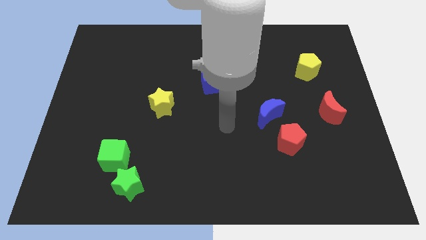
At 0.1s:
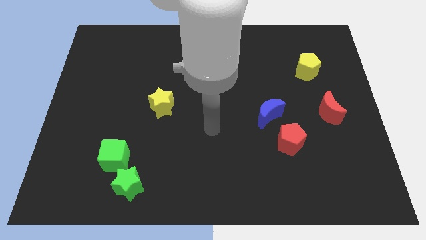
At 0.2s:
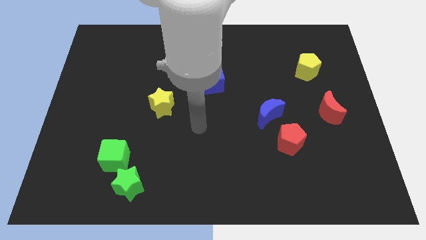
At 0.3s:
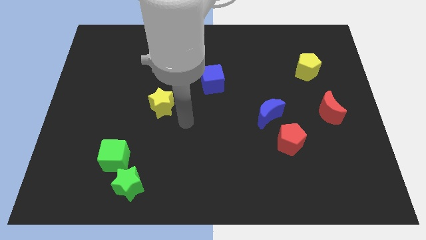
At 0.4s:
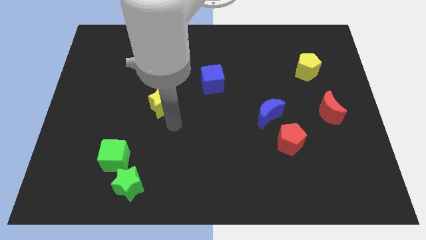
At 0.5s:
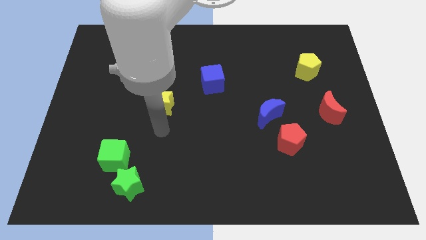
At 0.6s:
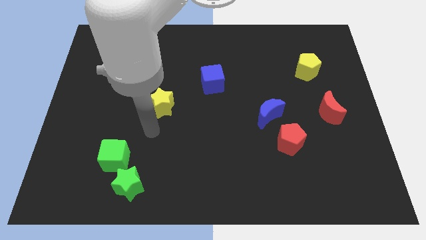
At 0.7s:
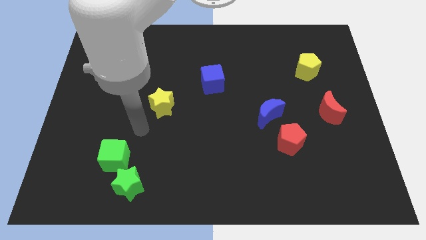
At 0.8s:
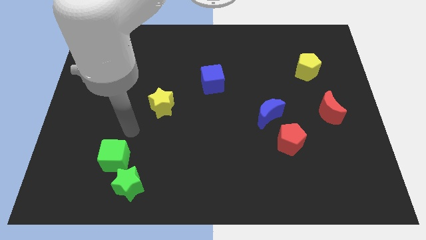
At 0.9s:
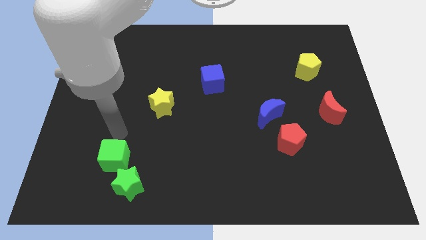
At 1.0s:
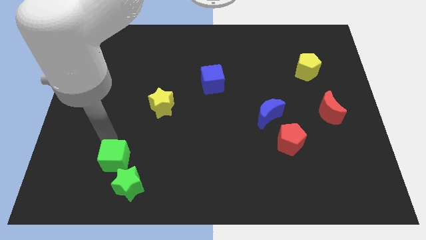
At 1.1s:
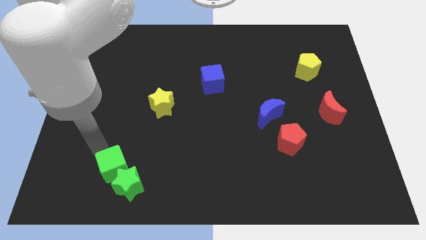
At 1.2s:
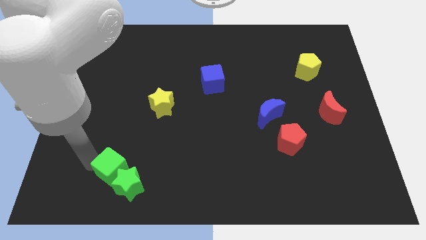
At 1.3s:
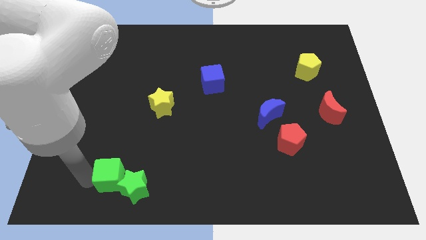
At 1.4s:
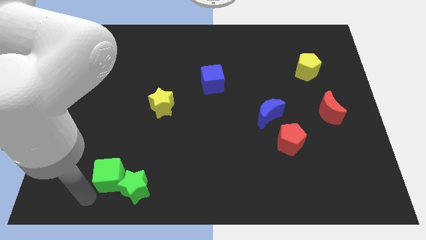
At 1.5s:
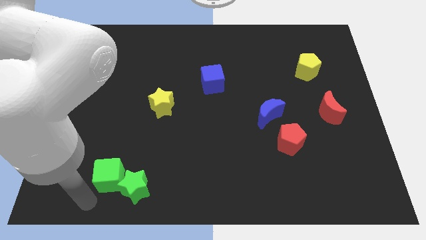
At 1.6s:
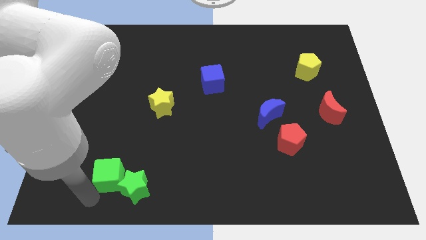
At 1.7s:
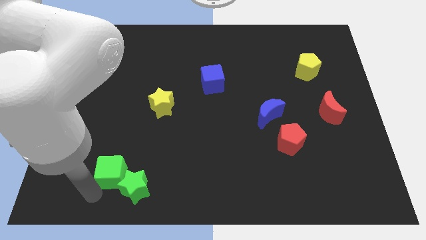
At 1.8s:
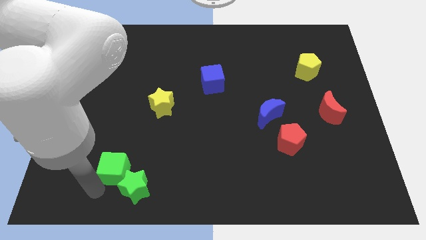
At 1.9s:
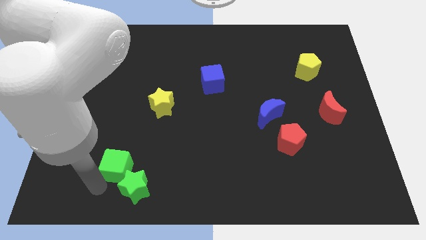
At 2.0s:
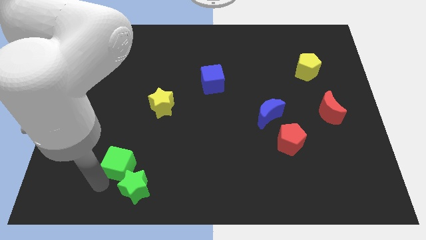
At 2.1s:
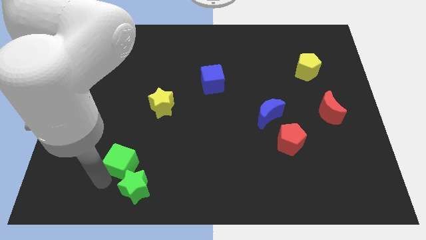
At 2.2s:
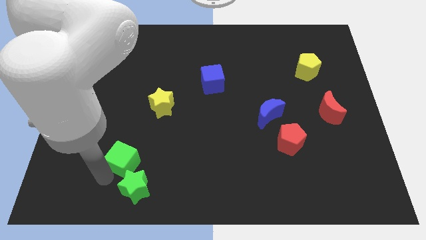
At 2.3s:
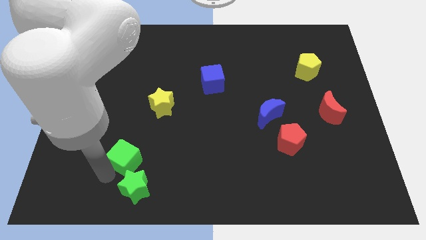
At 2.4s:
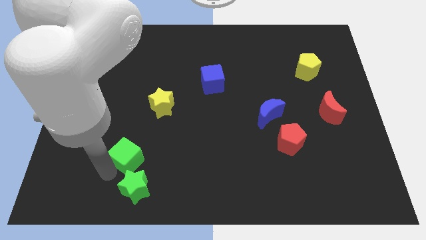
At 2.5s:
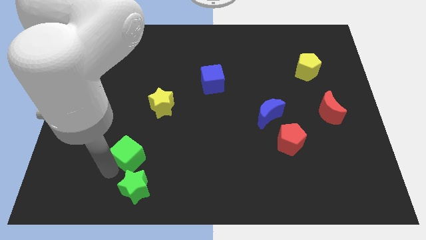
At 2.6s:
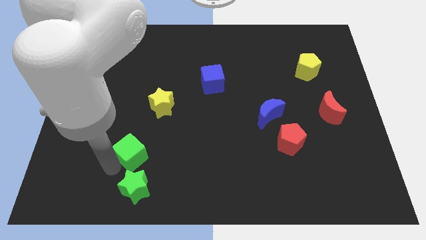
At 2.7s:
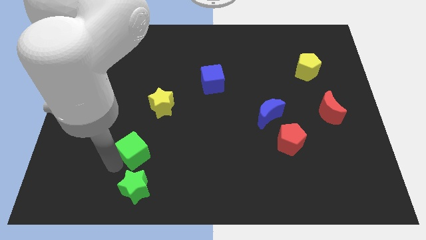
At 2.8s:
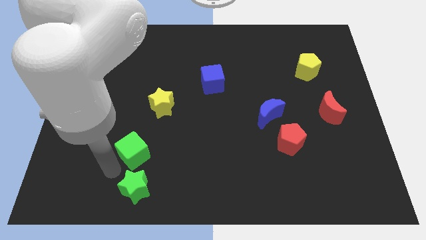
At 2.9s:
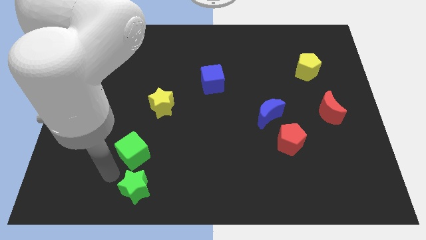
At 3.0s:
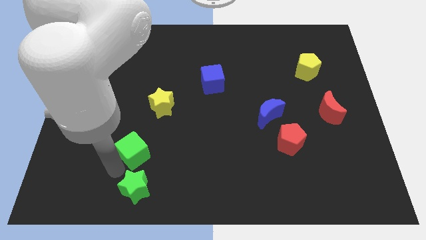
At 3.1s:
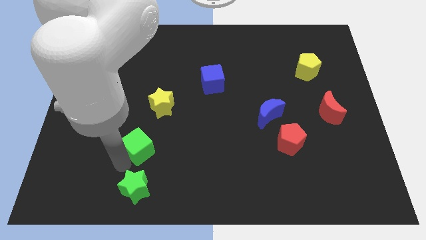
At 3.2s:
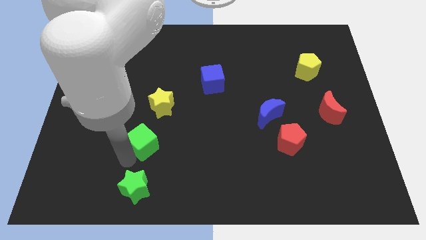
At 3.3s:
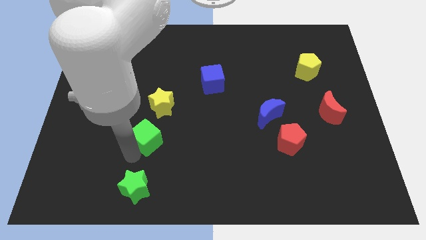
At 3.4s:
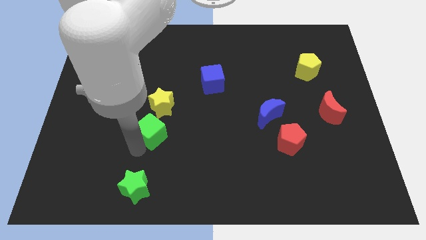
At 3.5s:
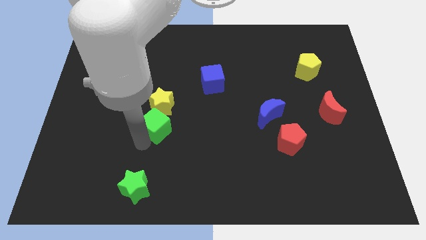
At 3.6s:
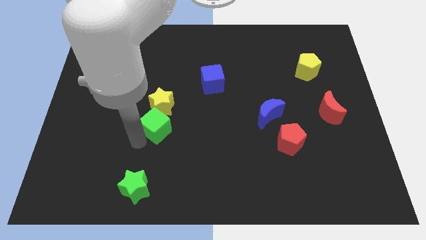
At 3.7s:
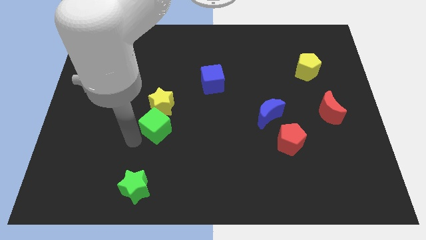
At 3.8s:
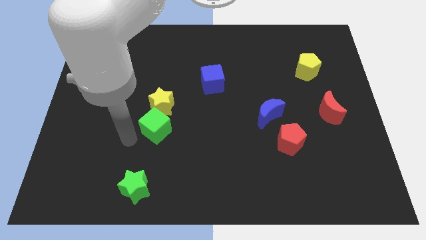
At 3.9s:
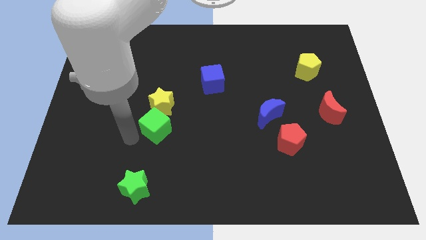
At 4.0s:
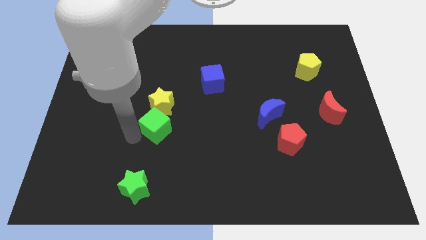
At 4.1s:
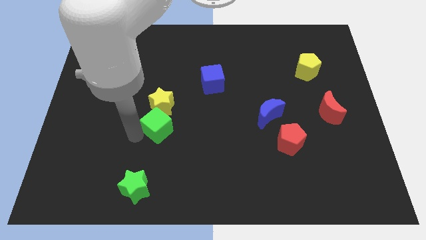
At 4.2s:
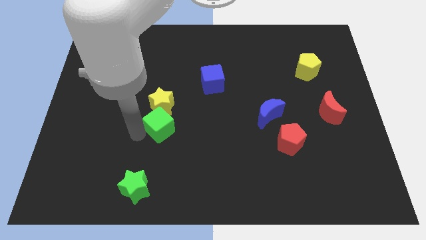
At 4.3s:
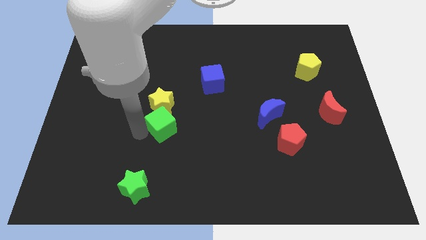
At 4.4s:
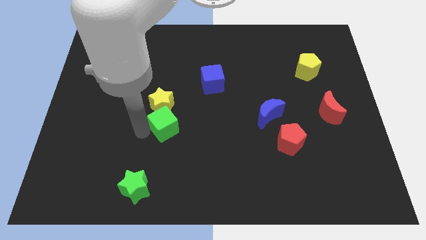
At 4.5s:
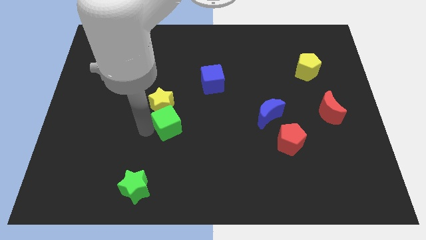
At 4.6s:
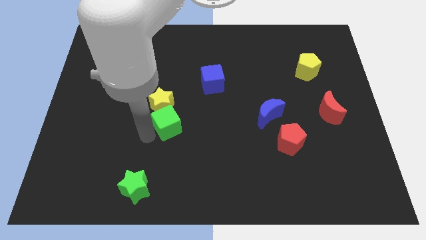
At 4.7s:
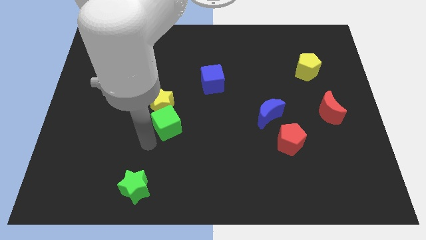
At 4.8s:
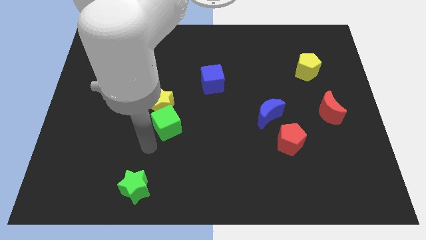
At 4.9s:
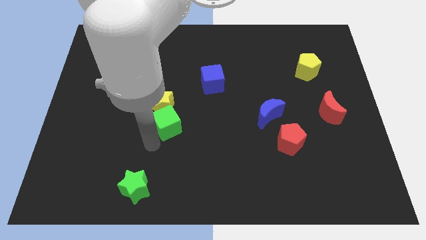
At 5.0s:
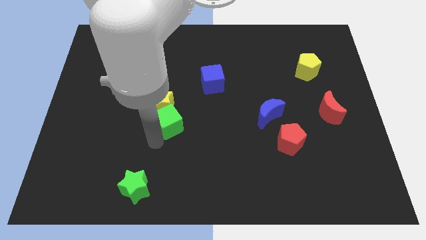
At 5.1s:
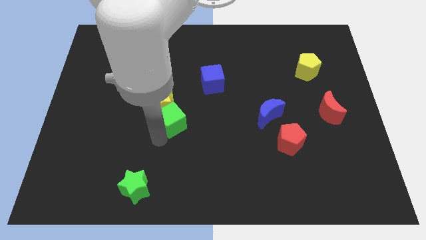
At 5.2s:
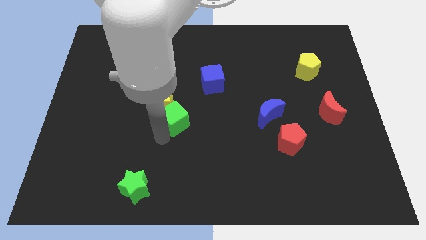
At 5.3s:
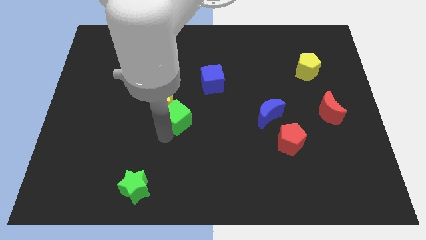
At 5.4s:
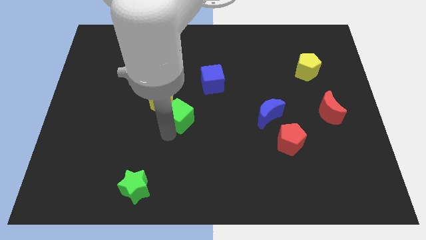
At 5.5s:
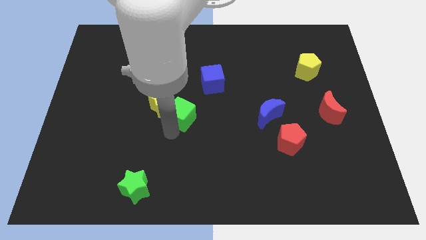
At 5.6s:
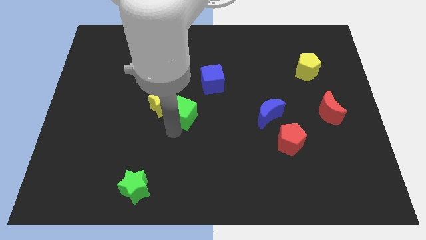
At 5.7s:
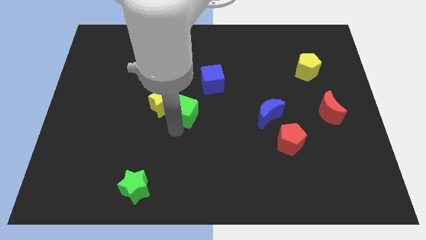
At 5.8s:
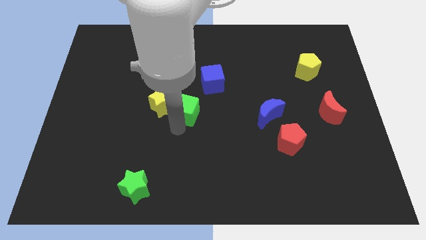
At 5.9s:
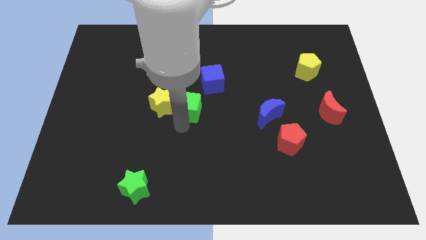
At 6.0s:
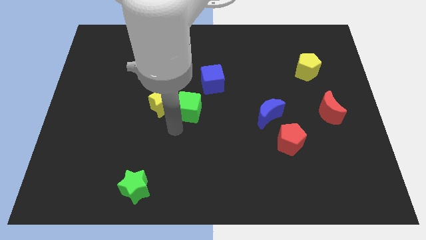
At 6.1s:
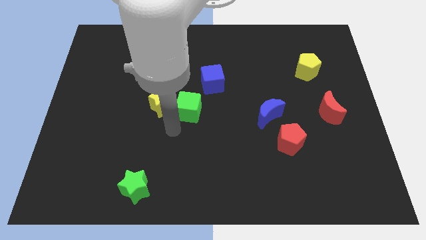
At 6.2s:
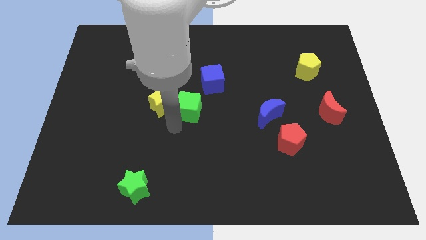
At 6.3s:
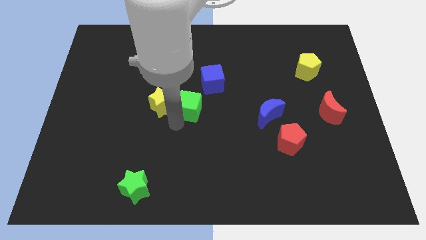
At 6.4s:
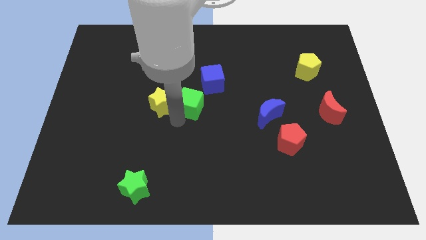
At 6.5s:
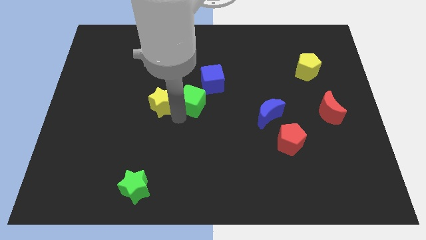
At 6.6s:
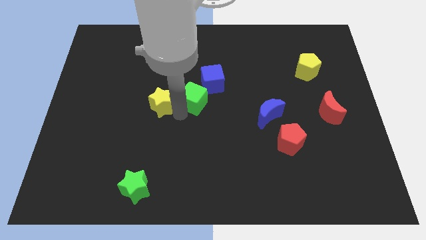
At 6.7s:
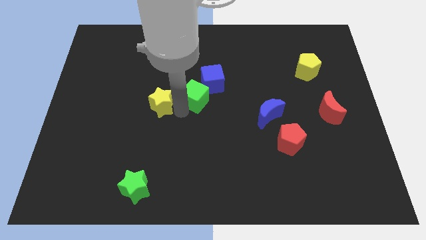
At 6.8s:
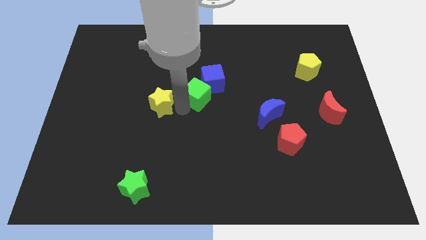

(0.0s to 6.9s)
move the green cube towards the blue cube
